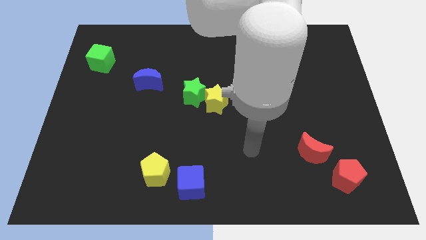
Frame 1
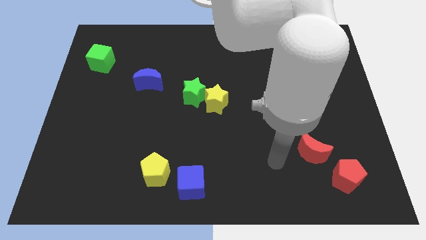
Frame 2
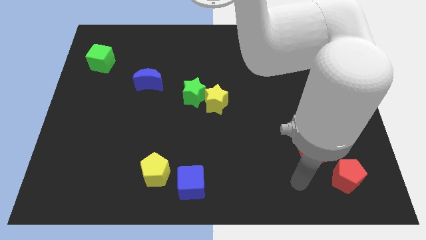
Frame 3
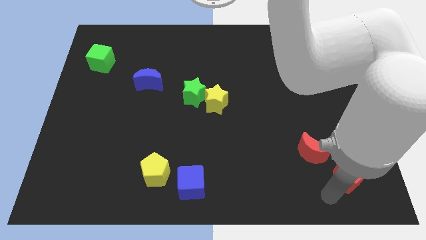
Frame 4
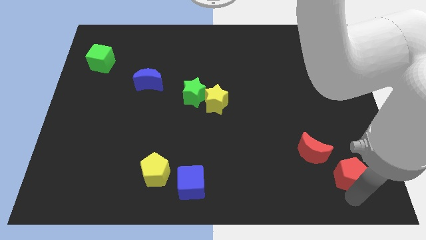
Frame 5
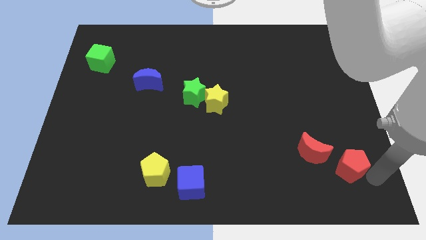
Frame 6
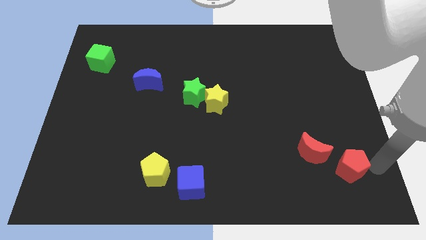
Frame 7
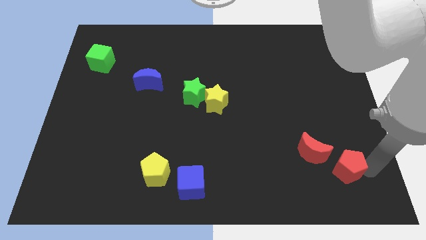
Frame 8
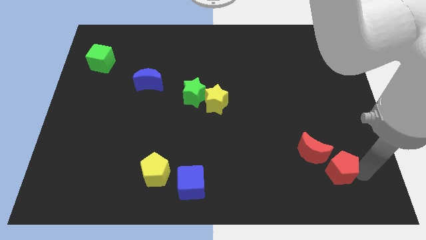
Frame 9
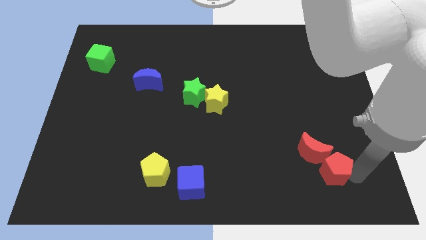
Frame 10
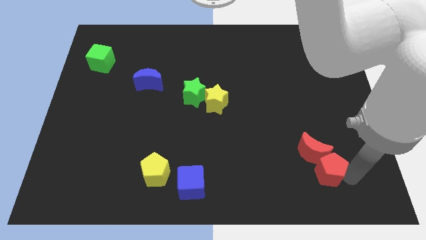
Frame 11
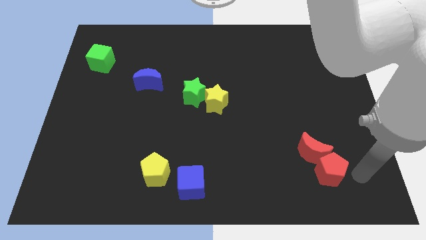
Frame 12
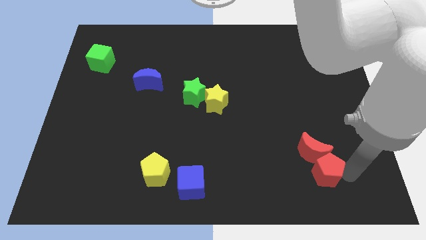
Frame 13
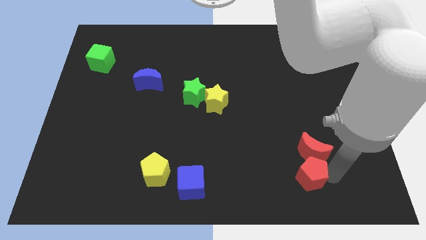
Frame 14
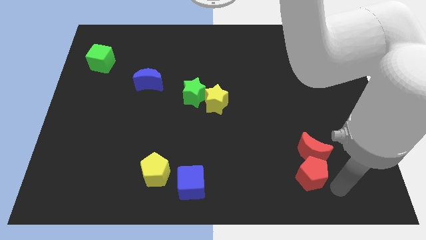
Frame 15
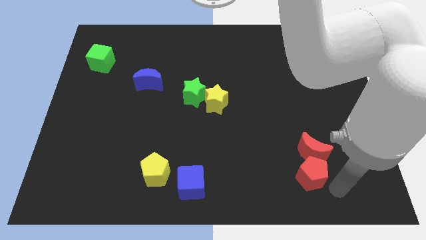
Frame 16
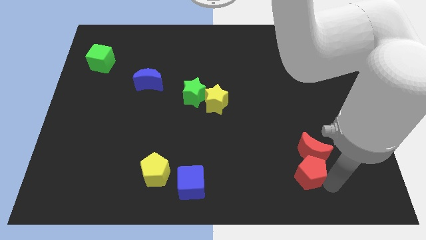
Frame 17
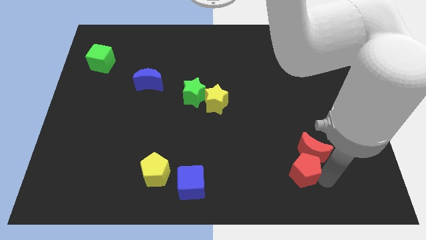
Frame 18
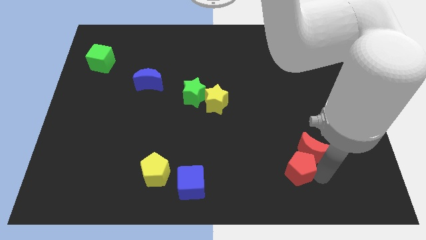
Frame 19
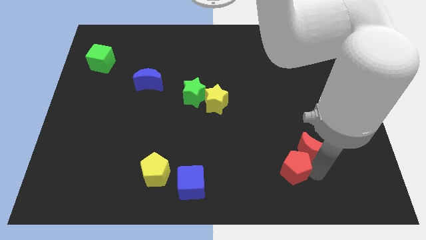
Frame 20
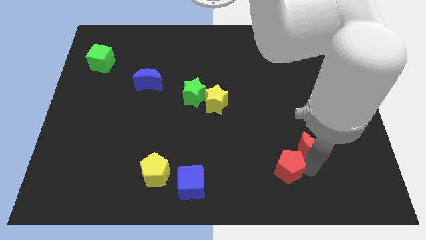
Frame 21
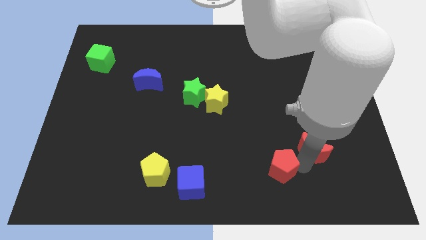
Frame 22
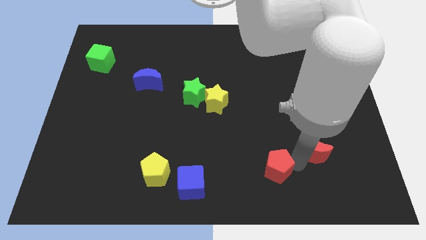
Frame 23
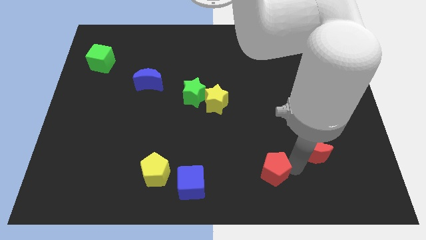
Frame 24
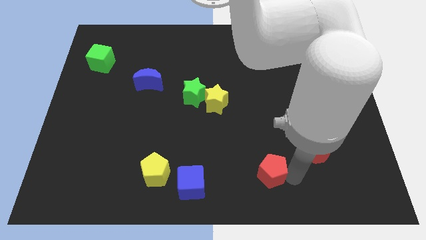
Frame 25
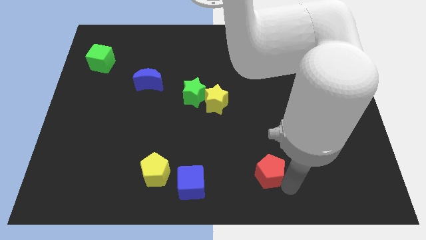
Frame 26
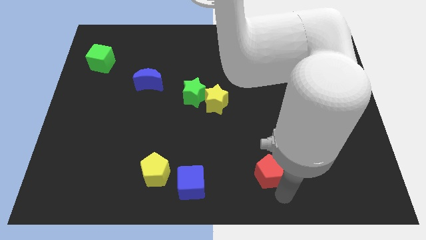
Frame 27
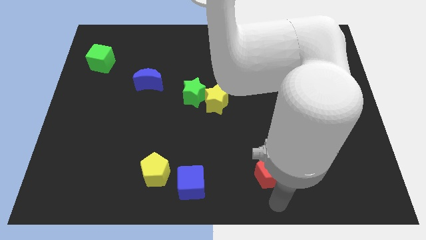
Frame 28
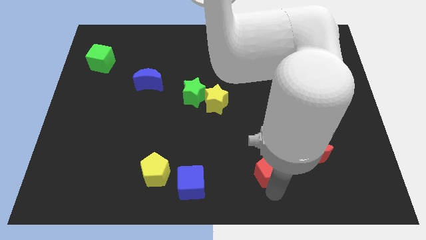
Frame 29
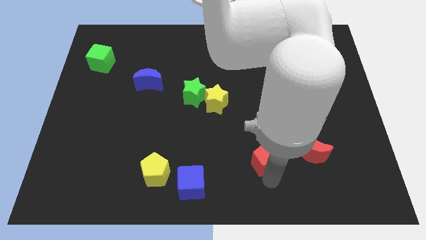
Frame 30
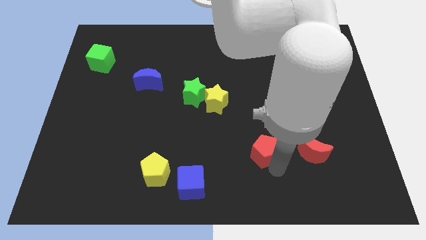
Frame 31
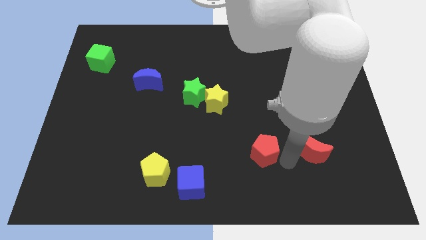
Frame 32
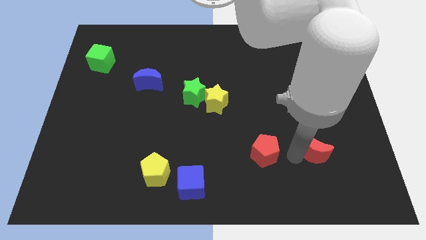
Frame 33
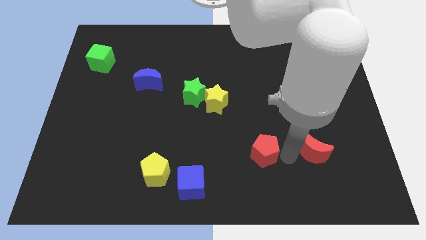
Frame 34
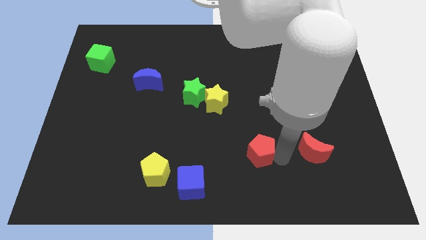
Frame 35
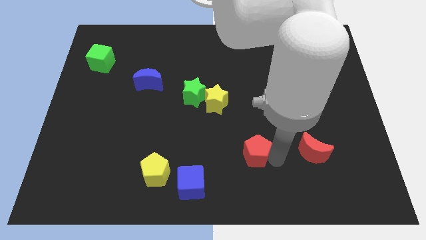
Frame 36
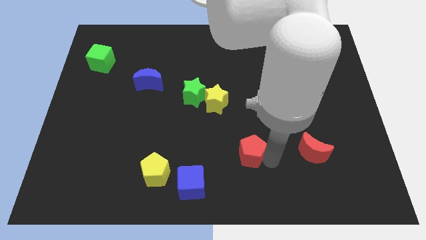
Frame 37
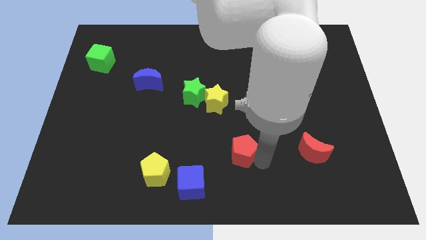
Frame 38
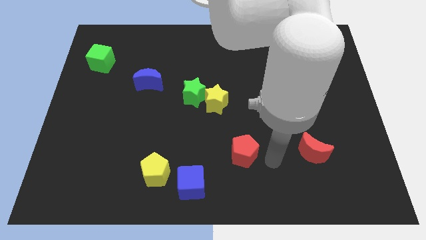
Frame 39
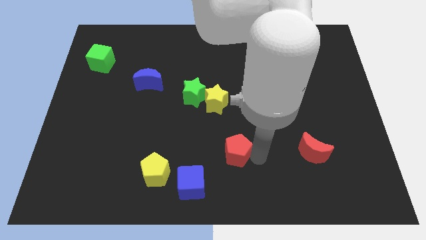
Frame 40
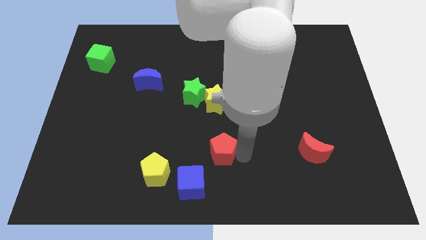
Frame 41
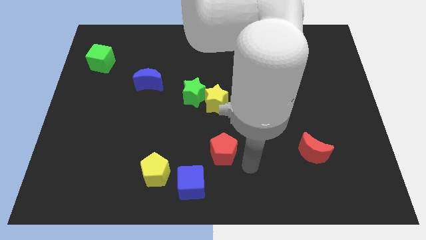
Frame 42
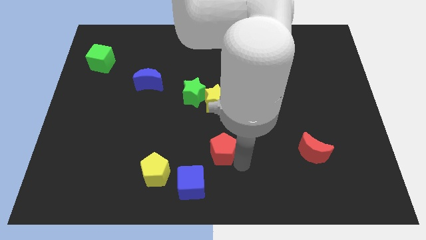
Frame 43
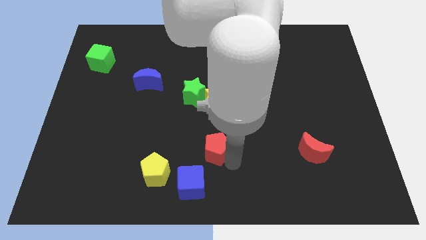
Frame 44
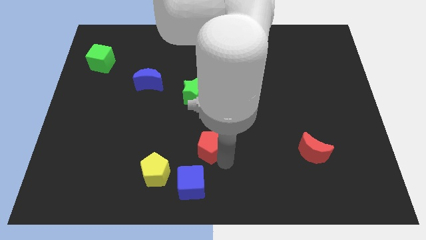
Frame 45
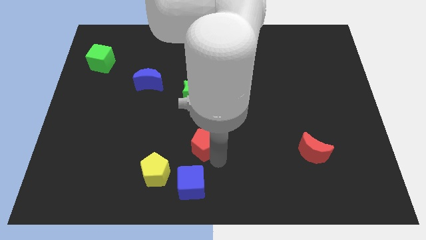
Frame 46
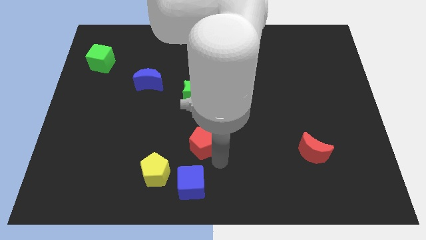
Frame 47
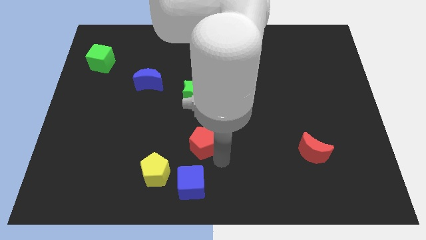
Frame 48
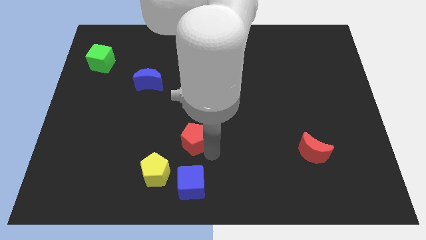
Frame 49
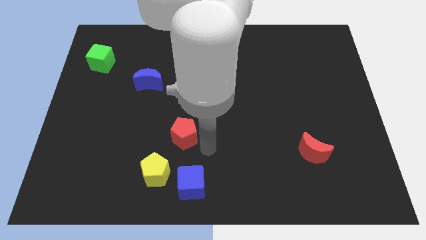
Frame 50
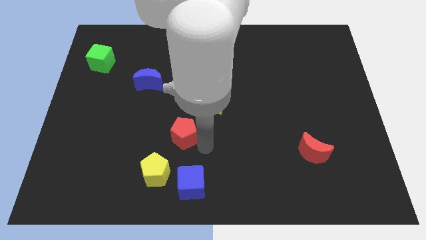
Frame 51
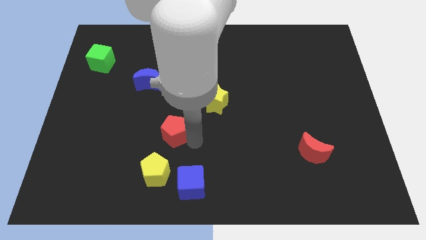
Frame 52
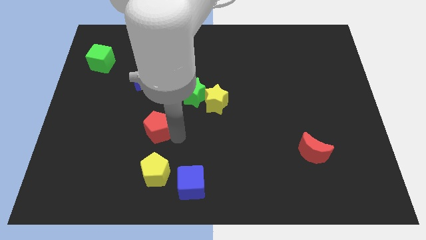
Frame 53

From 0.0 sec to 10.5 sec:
put the red pentagon below the blue moon

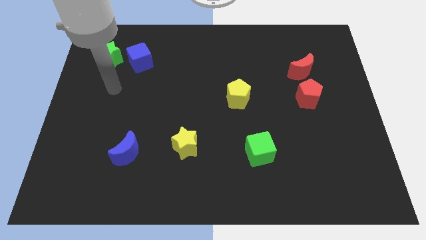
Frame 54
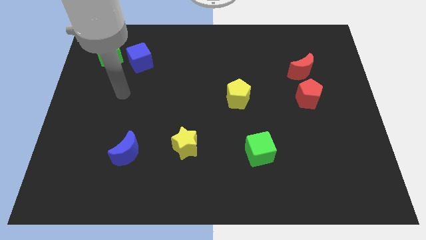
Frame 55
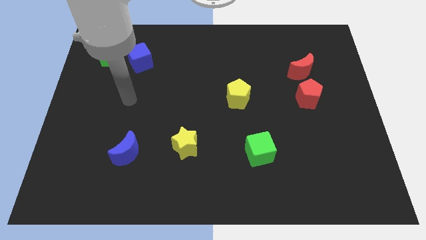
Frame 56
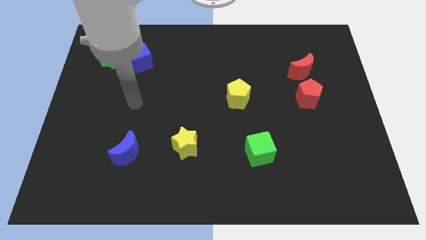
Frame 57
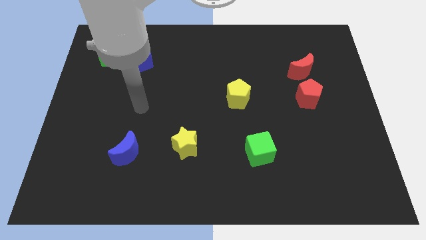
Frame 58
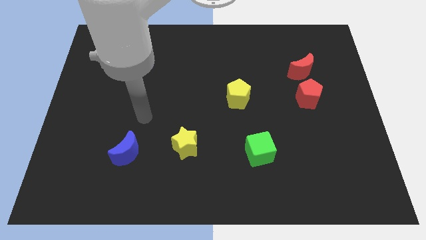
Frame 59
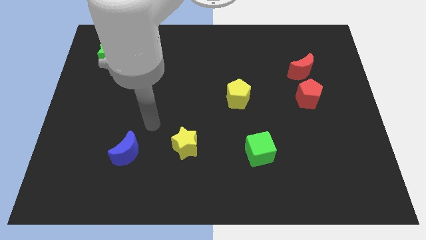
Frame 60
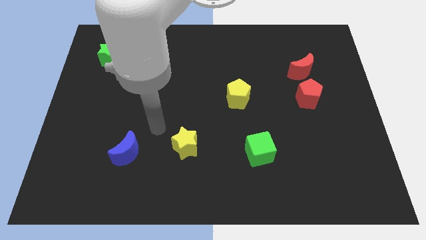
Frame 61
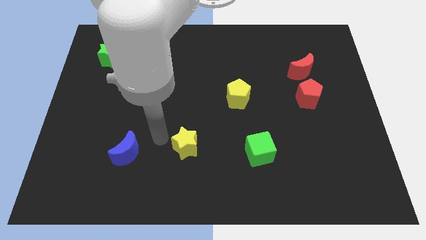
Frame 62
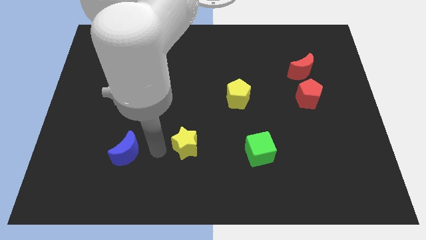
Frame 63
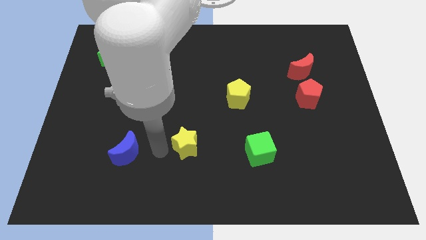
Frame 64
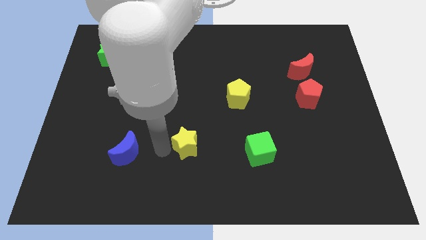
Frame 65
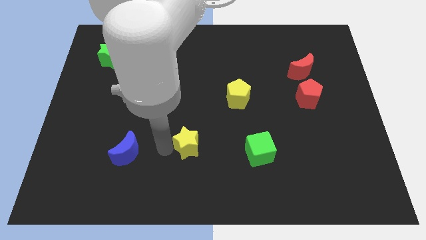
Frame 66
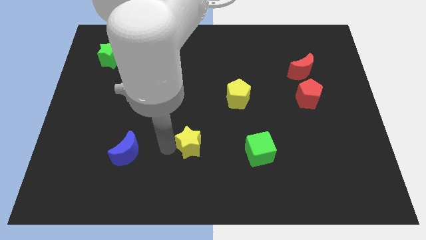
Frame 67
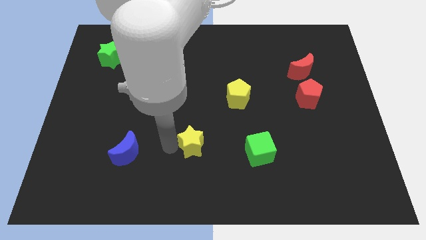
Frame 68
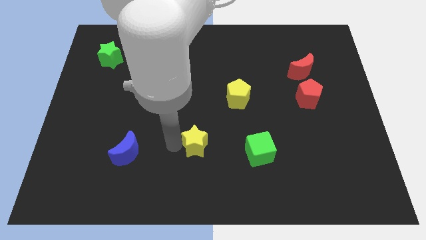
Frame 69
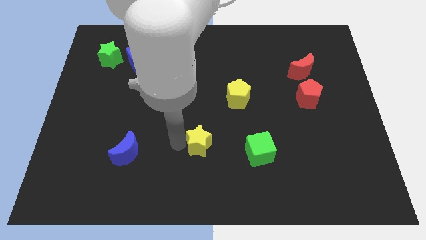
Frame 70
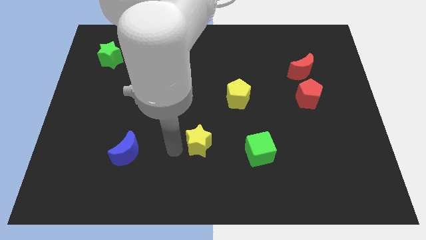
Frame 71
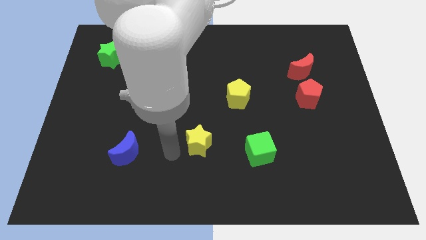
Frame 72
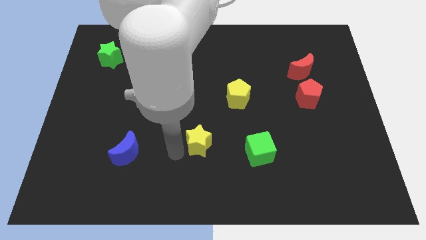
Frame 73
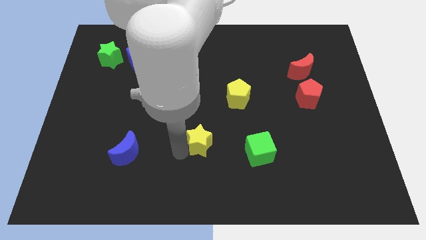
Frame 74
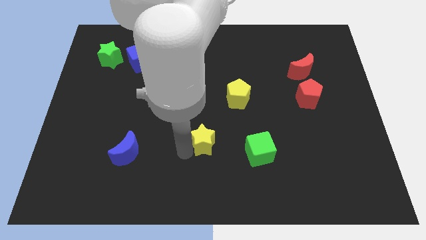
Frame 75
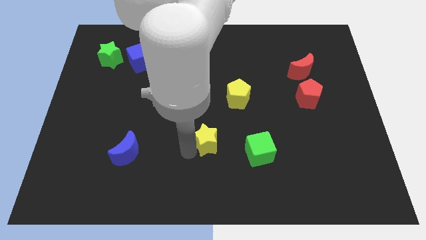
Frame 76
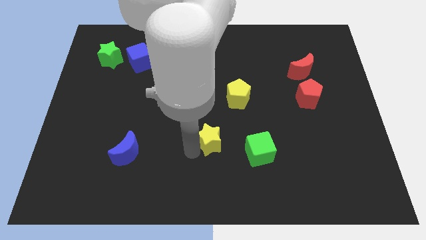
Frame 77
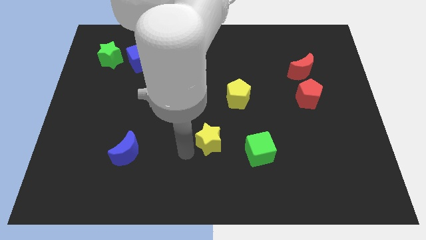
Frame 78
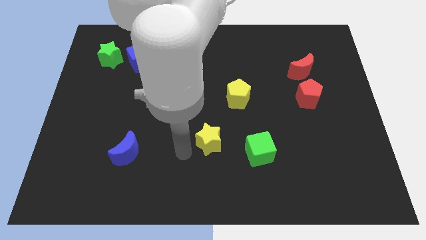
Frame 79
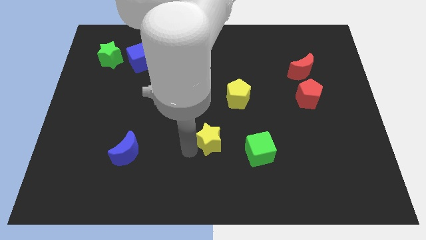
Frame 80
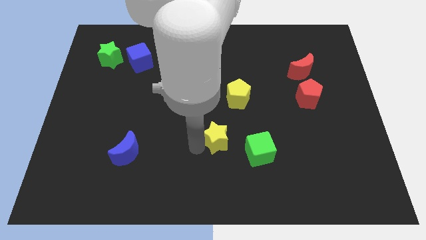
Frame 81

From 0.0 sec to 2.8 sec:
put the yellow star diagonally up and to the left of the green cube
